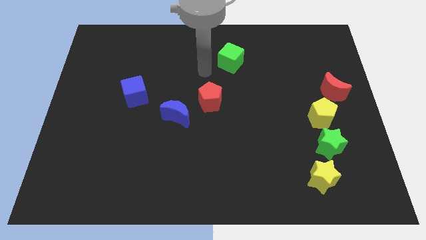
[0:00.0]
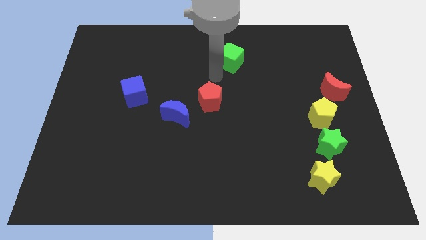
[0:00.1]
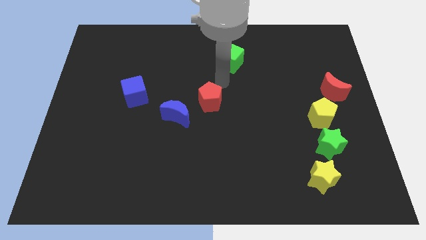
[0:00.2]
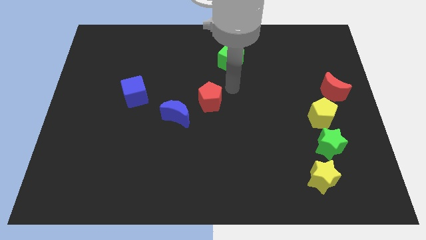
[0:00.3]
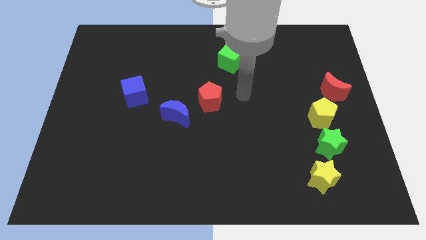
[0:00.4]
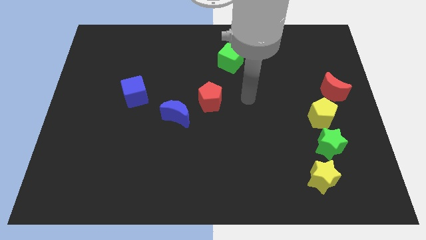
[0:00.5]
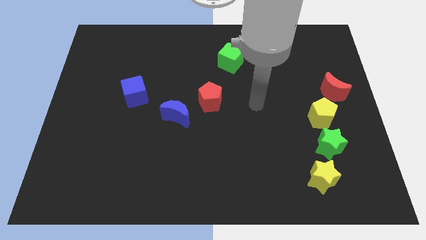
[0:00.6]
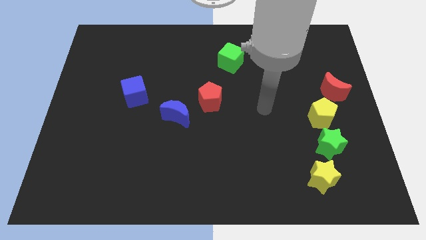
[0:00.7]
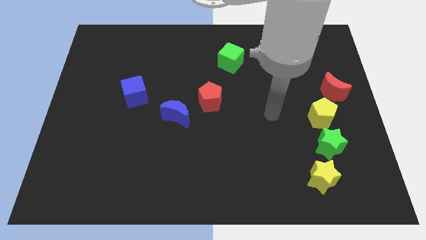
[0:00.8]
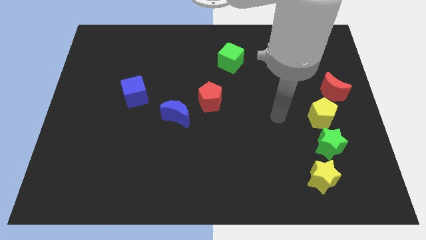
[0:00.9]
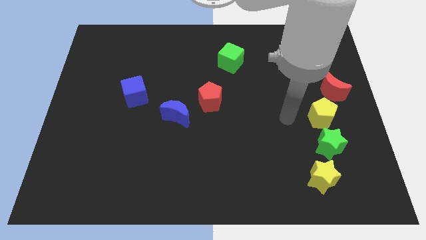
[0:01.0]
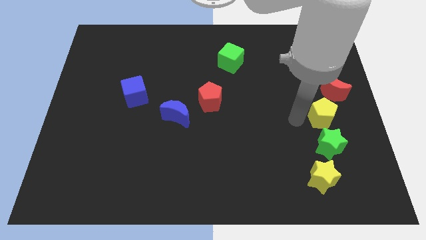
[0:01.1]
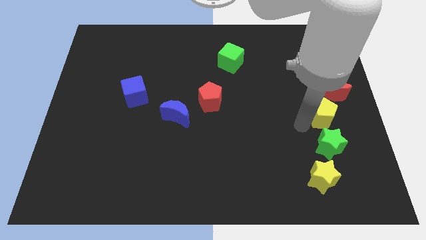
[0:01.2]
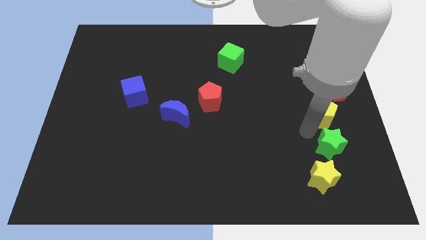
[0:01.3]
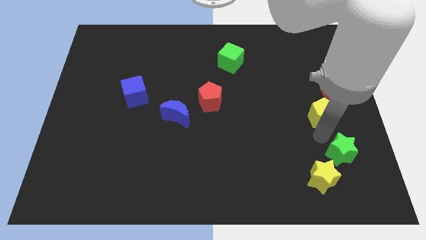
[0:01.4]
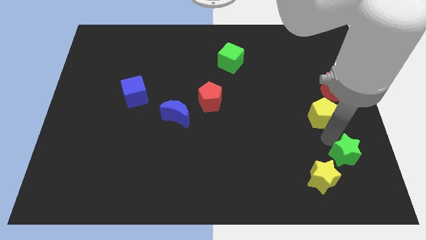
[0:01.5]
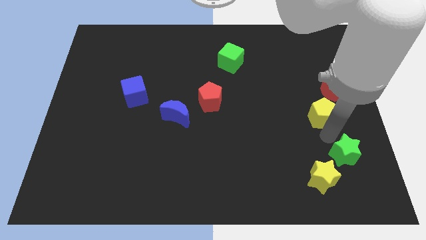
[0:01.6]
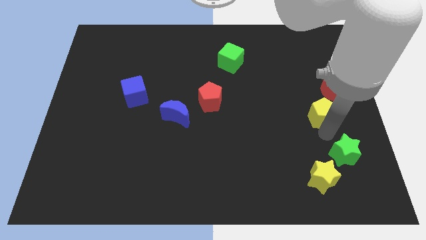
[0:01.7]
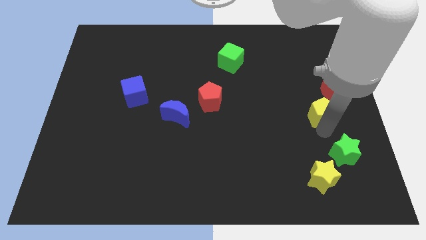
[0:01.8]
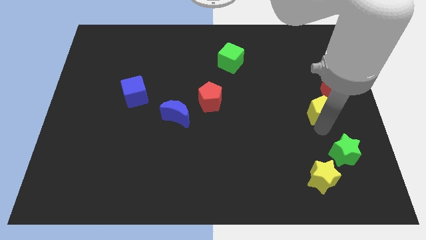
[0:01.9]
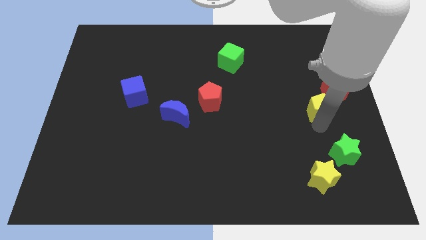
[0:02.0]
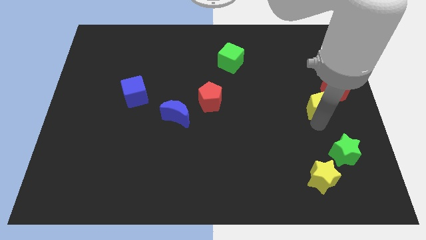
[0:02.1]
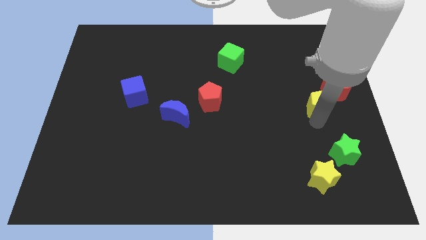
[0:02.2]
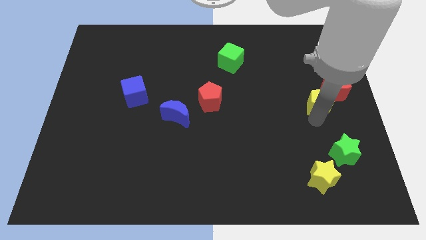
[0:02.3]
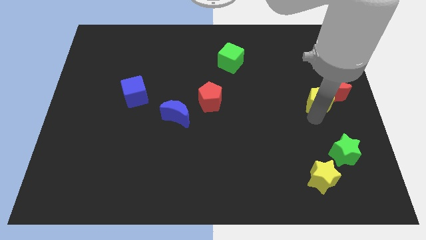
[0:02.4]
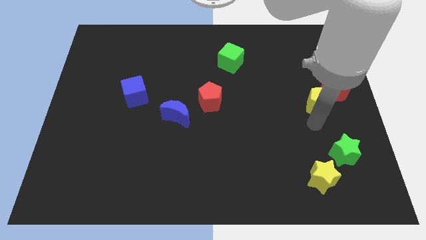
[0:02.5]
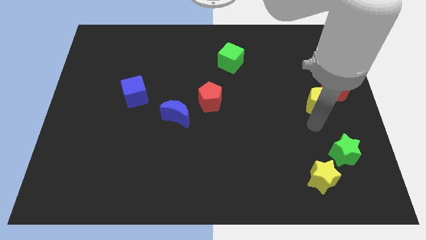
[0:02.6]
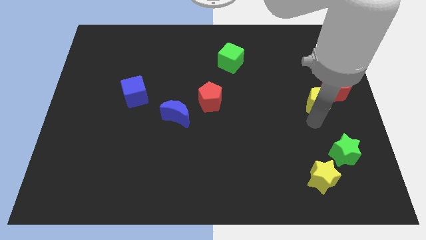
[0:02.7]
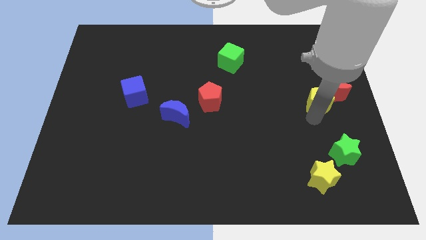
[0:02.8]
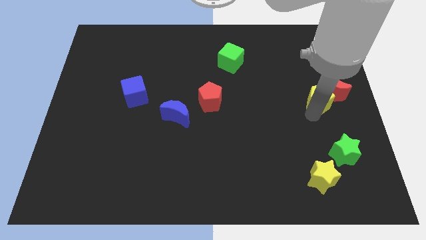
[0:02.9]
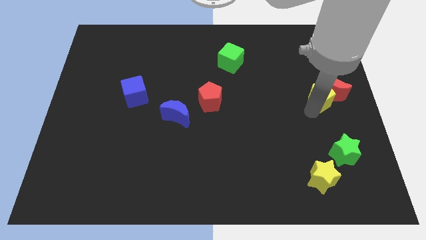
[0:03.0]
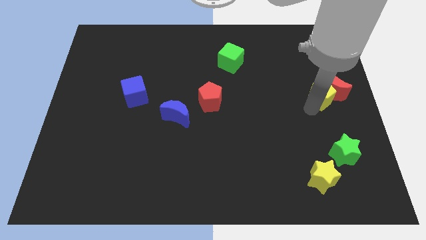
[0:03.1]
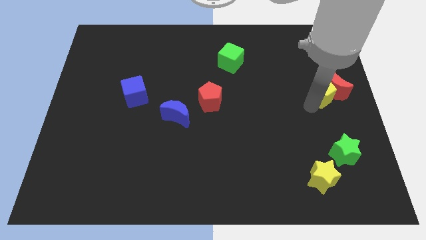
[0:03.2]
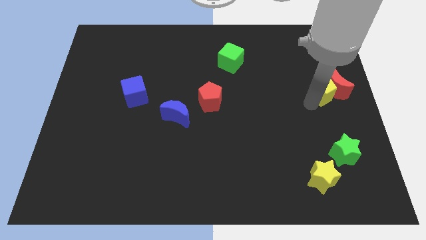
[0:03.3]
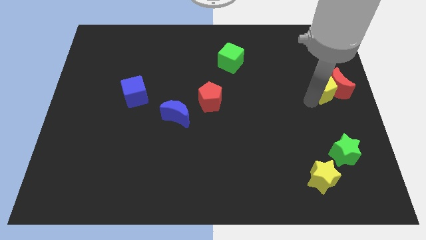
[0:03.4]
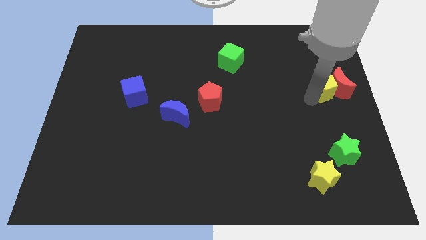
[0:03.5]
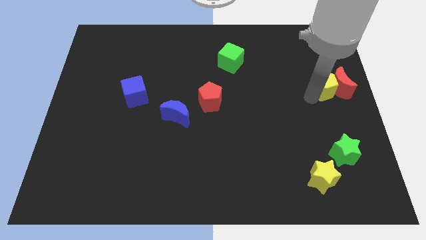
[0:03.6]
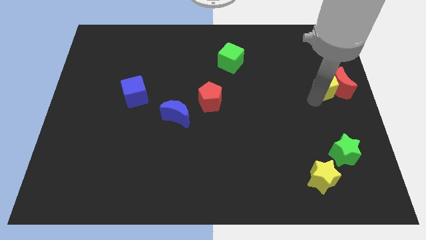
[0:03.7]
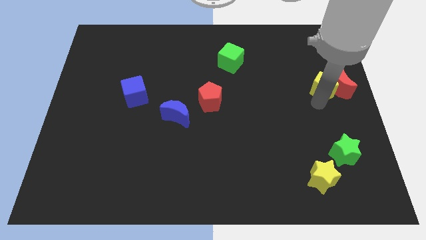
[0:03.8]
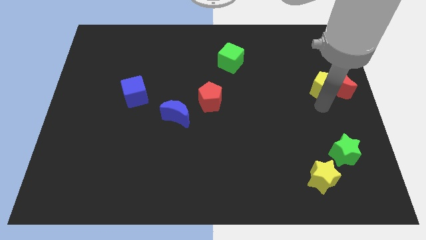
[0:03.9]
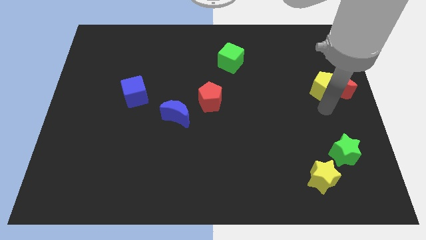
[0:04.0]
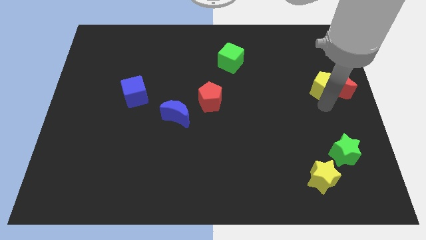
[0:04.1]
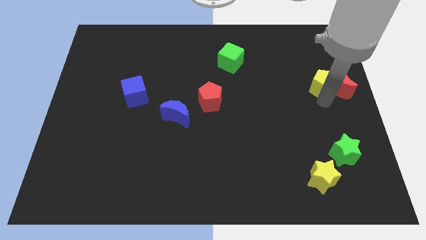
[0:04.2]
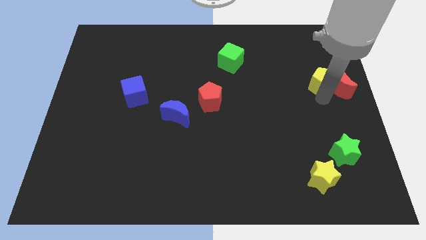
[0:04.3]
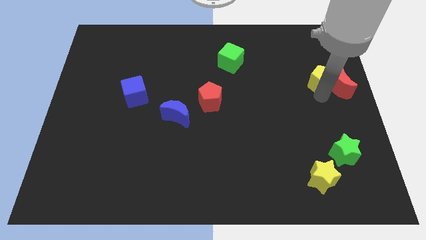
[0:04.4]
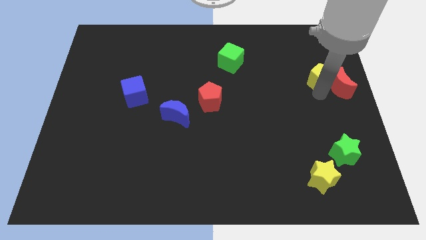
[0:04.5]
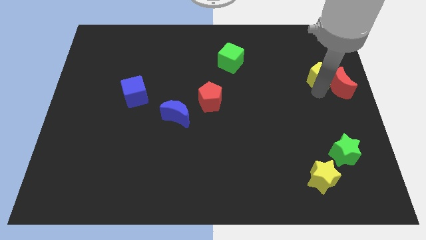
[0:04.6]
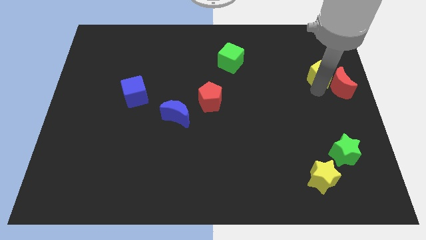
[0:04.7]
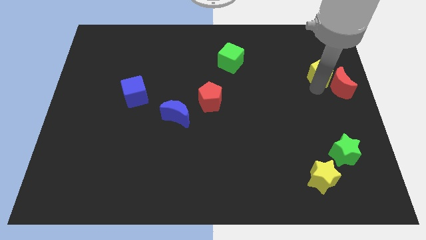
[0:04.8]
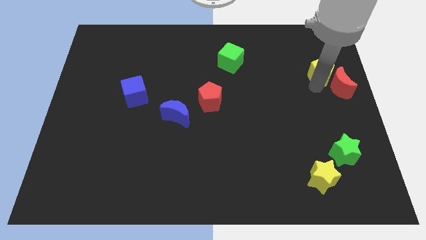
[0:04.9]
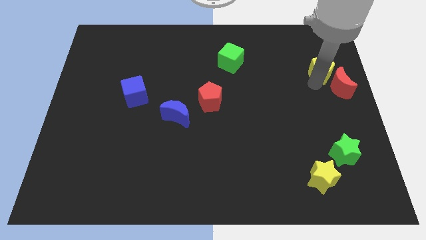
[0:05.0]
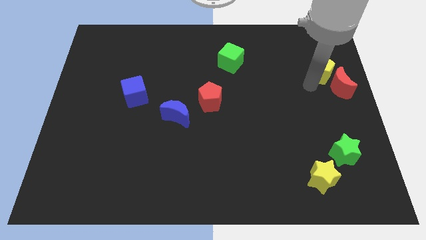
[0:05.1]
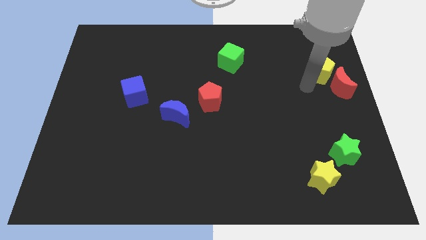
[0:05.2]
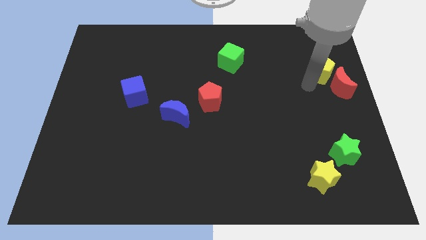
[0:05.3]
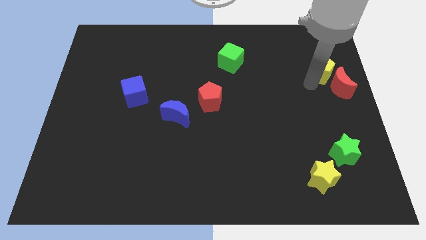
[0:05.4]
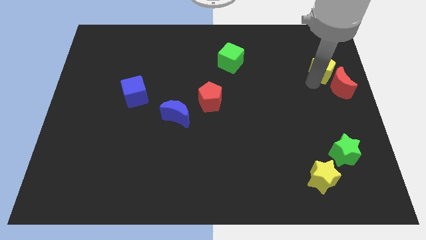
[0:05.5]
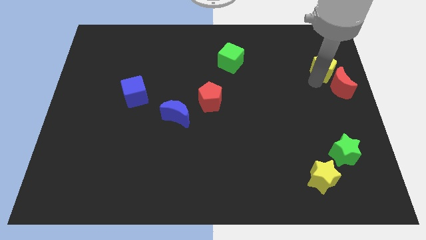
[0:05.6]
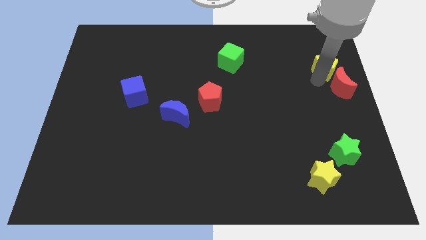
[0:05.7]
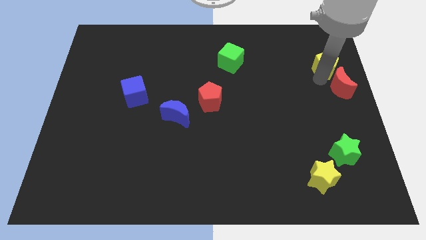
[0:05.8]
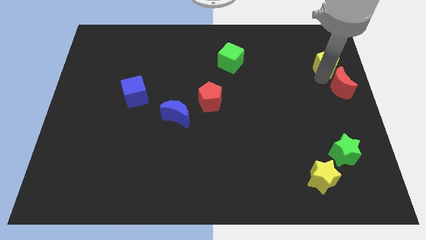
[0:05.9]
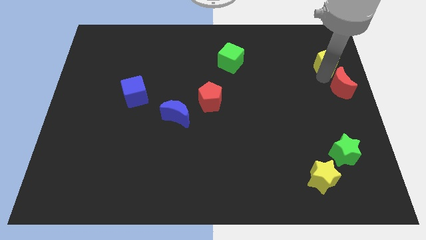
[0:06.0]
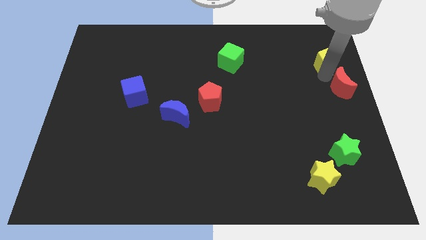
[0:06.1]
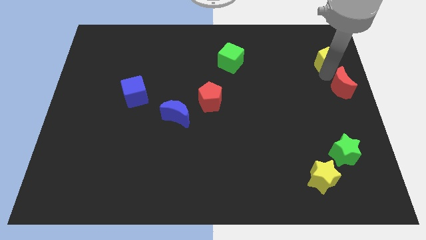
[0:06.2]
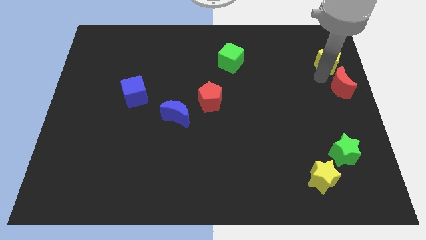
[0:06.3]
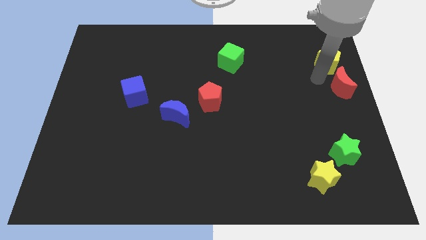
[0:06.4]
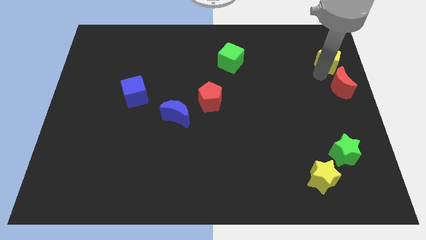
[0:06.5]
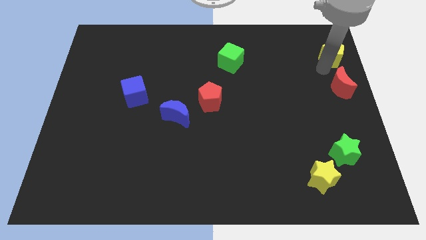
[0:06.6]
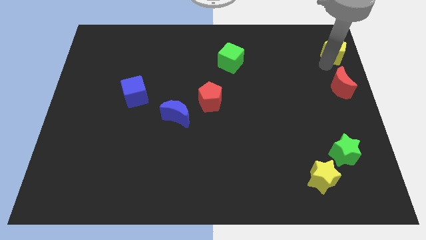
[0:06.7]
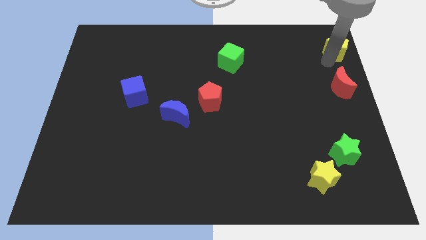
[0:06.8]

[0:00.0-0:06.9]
slide the yellow pentagon to the upper right corner

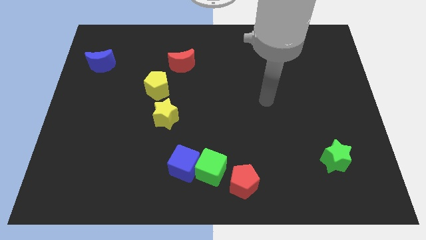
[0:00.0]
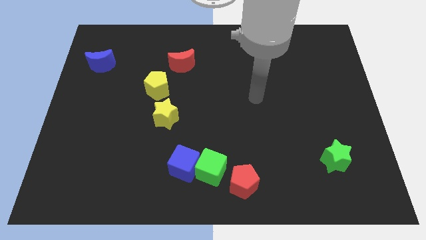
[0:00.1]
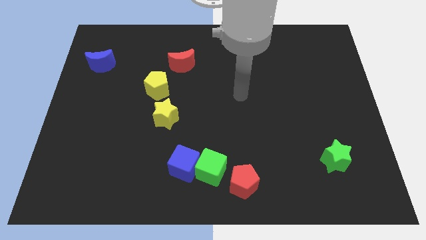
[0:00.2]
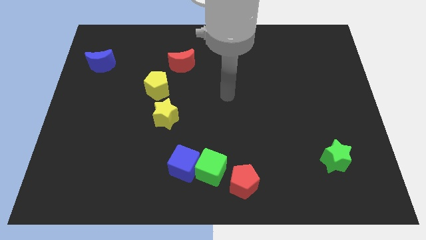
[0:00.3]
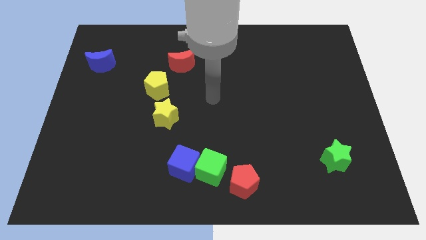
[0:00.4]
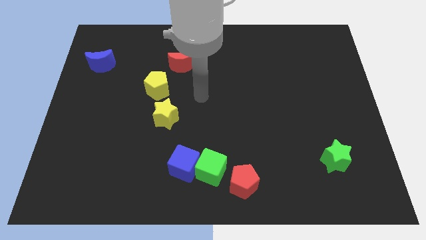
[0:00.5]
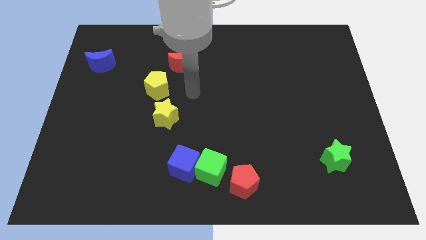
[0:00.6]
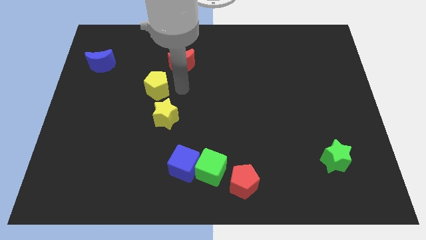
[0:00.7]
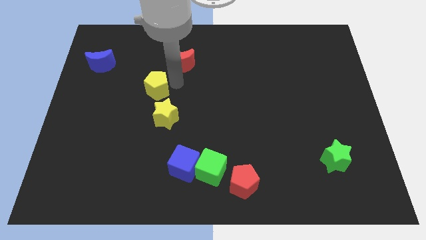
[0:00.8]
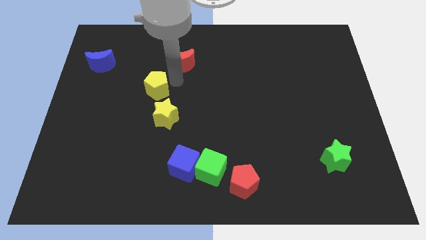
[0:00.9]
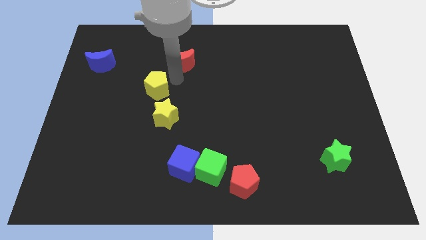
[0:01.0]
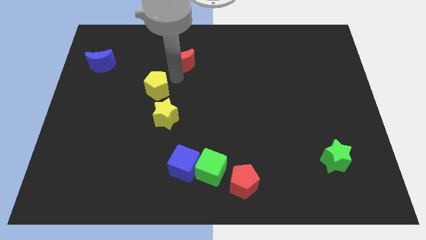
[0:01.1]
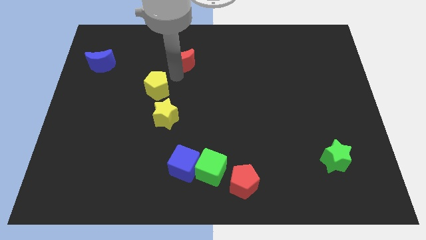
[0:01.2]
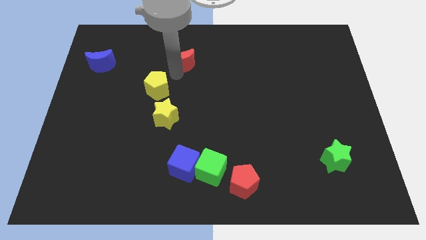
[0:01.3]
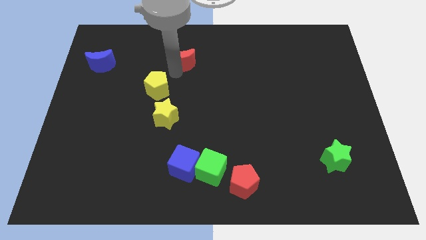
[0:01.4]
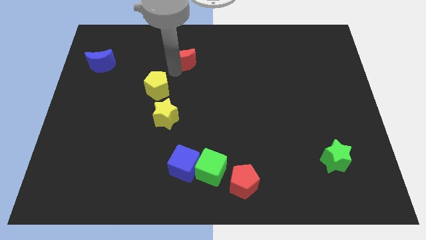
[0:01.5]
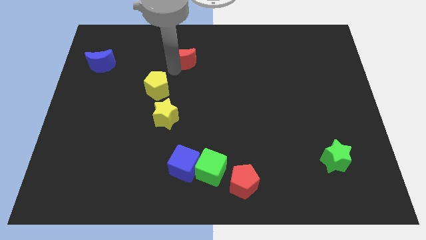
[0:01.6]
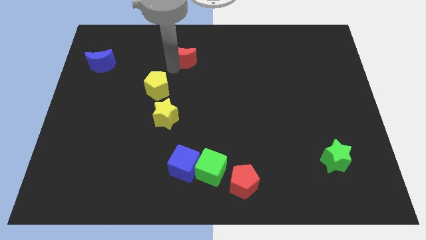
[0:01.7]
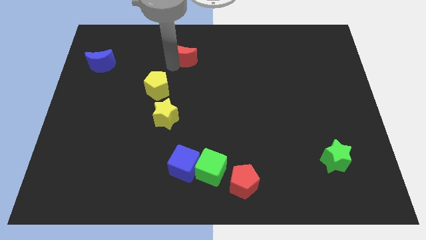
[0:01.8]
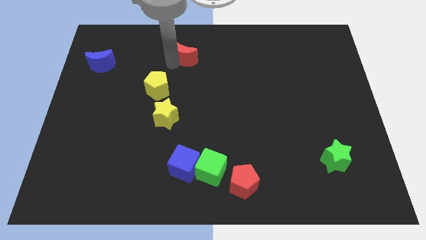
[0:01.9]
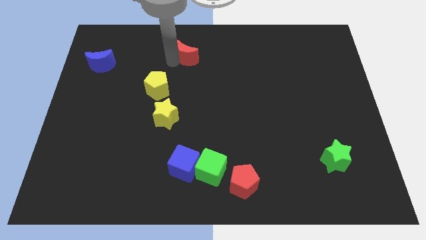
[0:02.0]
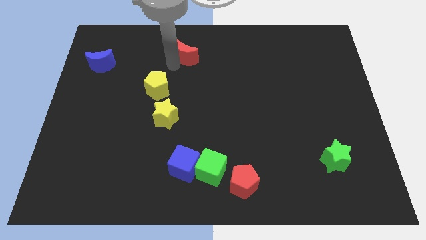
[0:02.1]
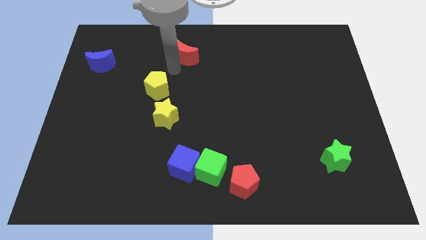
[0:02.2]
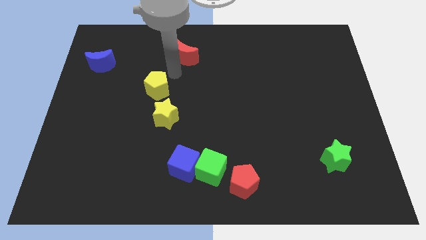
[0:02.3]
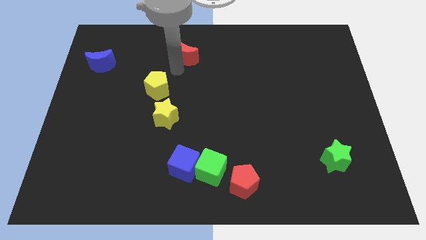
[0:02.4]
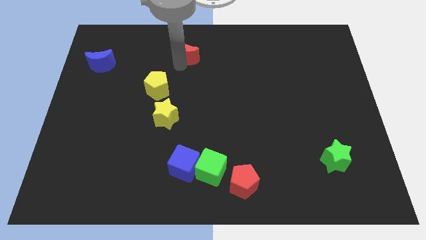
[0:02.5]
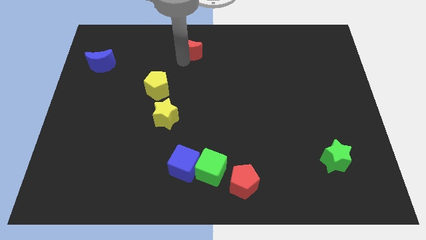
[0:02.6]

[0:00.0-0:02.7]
move the red moon to the top side
